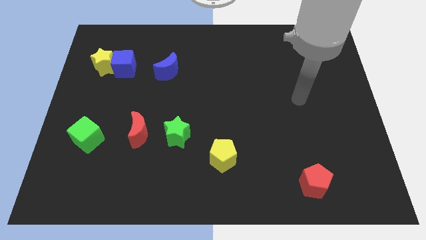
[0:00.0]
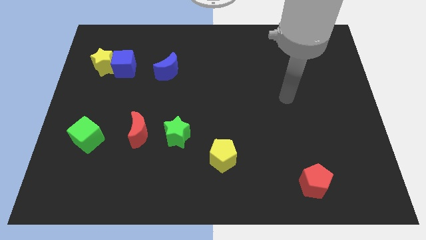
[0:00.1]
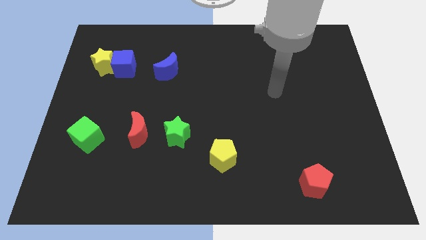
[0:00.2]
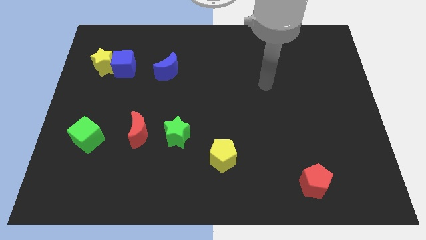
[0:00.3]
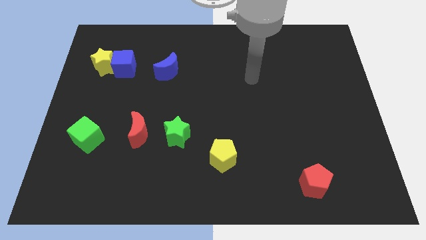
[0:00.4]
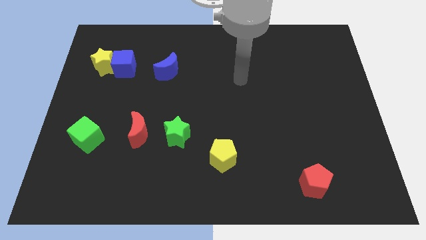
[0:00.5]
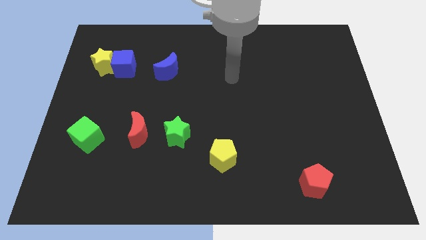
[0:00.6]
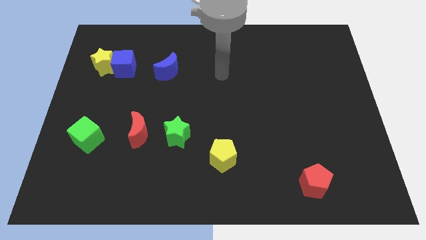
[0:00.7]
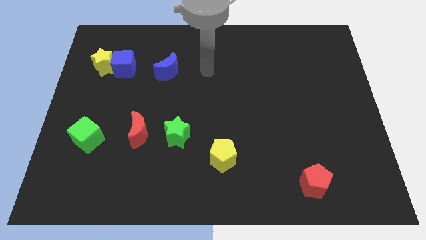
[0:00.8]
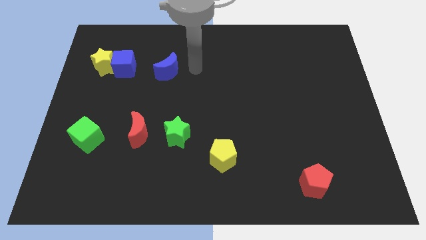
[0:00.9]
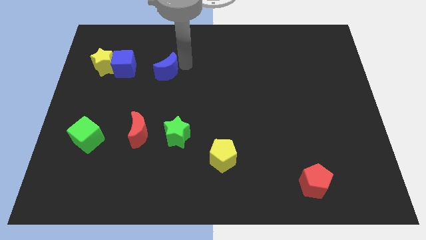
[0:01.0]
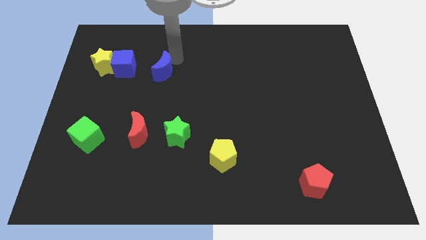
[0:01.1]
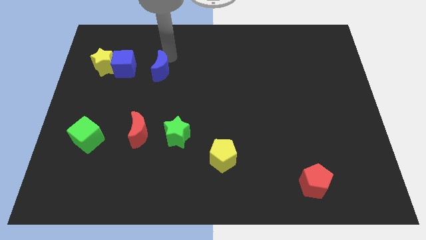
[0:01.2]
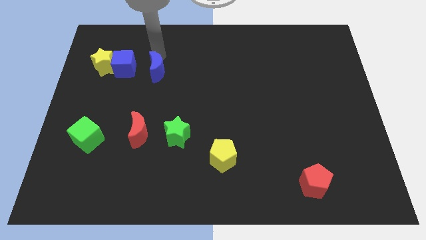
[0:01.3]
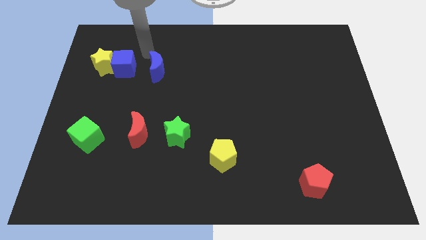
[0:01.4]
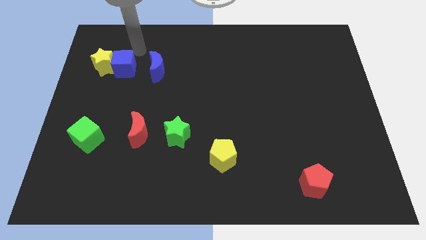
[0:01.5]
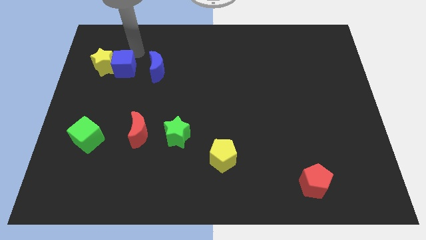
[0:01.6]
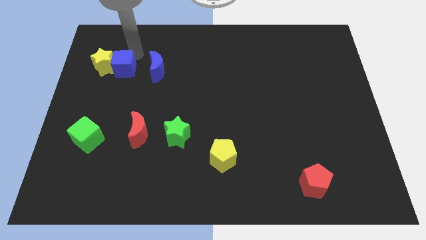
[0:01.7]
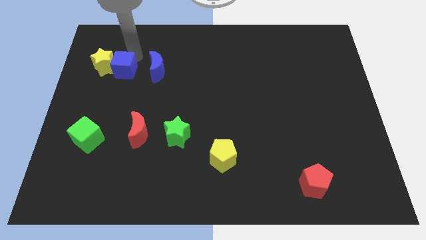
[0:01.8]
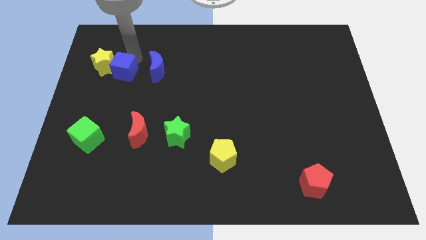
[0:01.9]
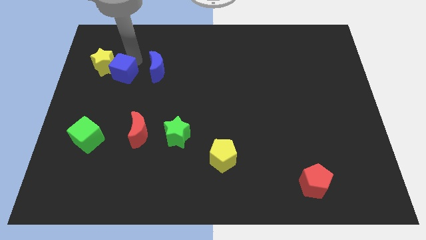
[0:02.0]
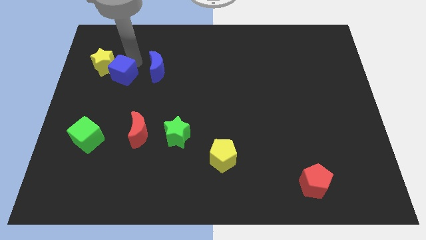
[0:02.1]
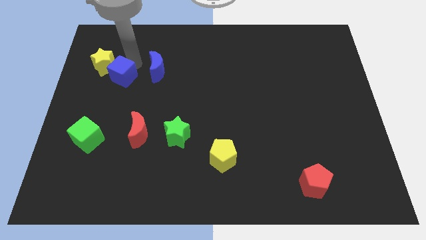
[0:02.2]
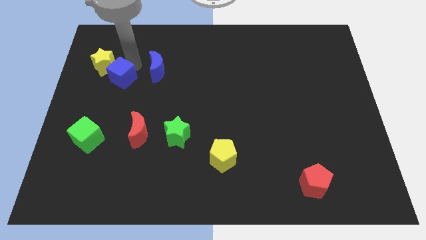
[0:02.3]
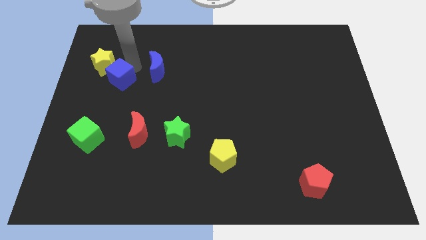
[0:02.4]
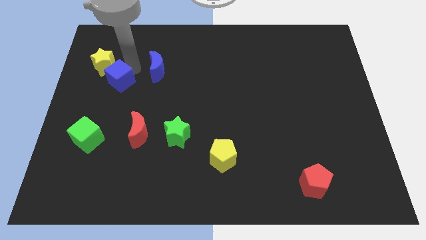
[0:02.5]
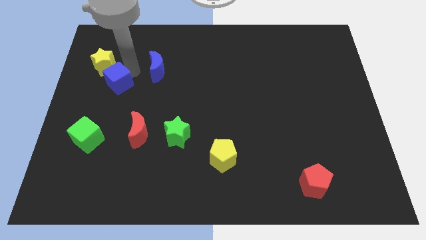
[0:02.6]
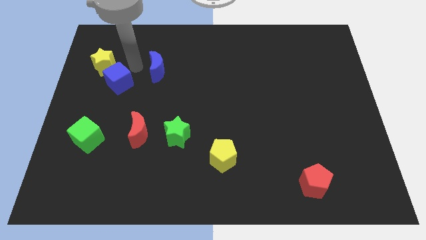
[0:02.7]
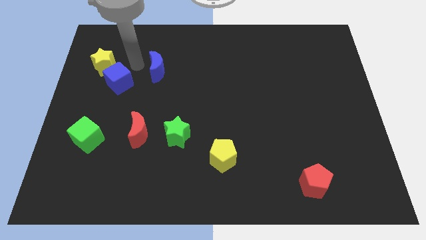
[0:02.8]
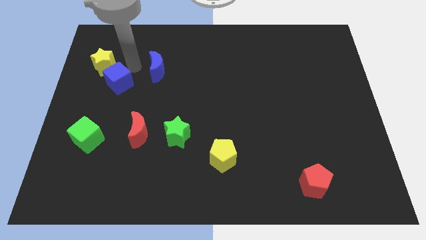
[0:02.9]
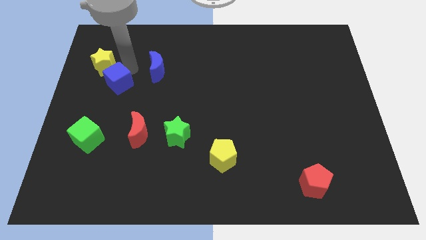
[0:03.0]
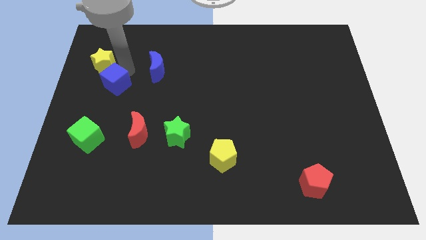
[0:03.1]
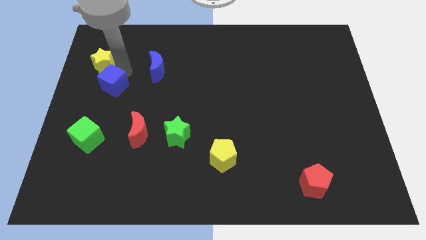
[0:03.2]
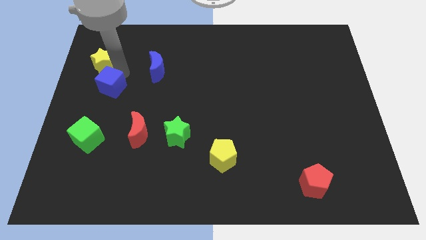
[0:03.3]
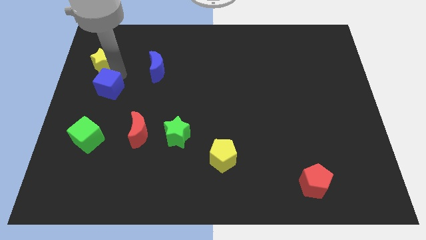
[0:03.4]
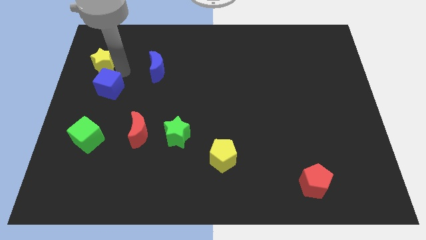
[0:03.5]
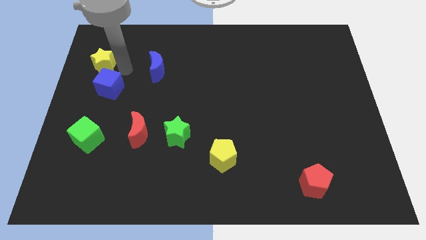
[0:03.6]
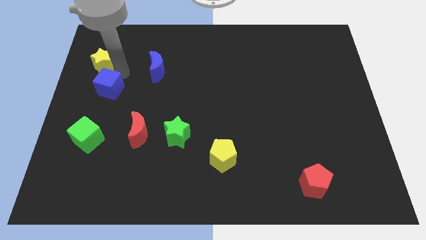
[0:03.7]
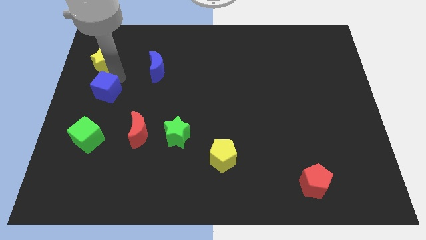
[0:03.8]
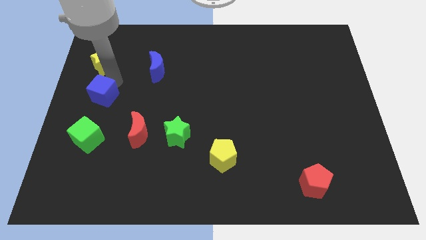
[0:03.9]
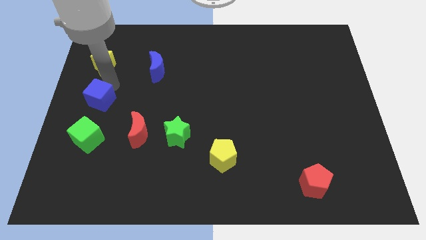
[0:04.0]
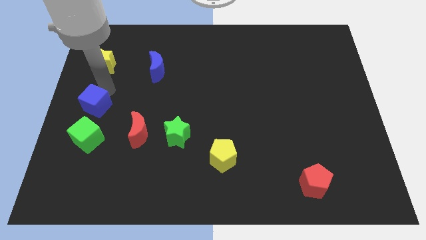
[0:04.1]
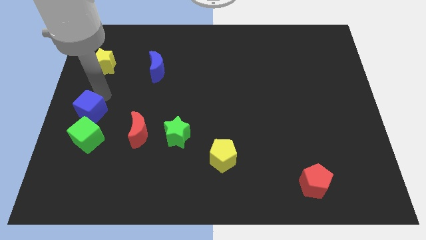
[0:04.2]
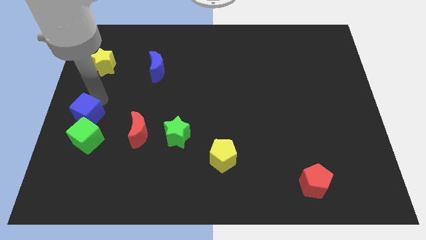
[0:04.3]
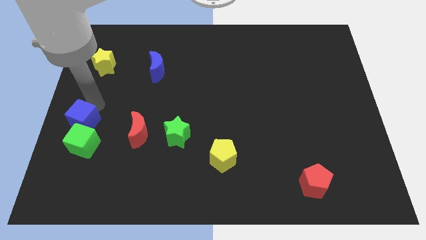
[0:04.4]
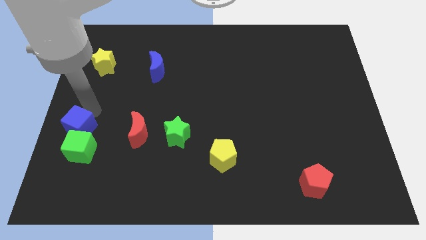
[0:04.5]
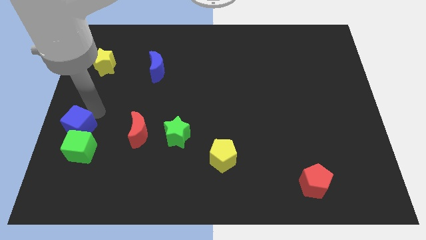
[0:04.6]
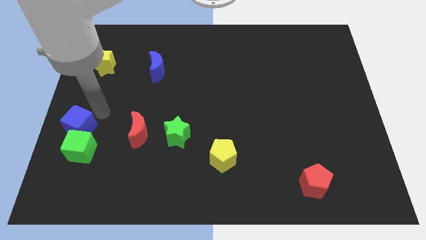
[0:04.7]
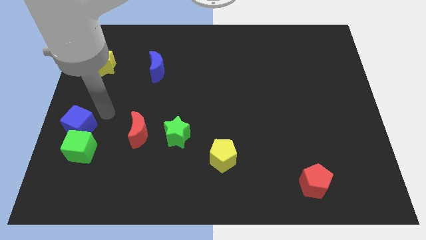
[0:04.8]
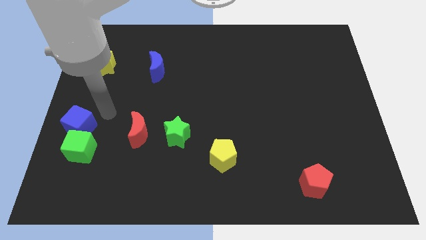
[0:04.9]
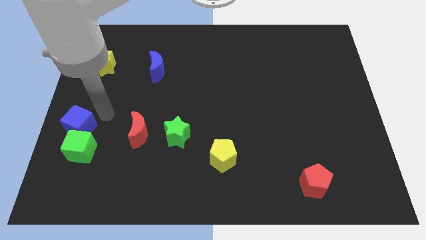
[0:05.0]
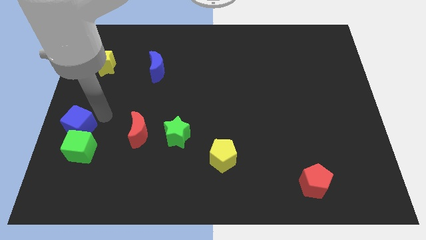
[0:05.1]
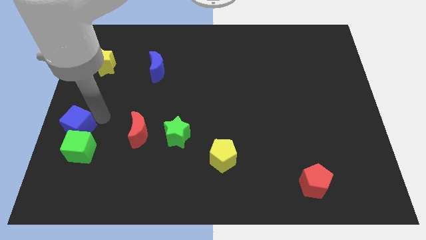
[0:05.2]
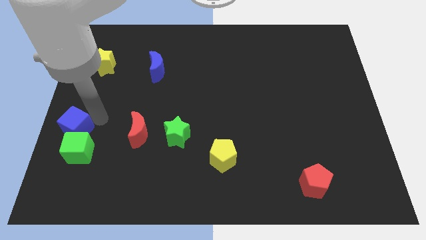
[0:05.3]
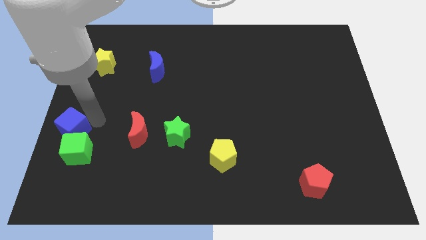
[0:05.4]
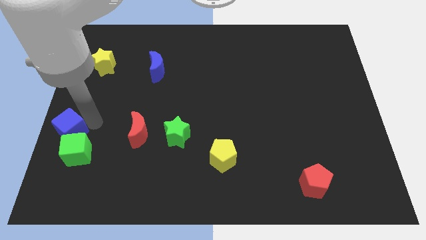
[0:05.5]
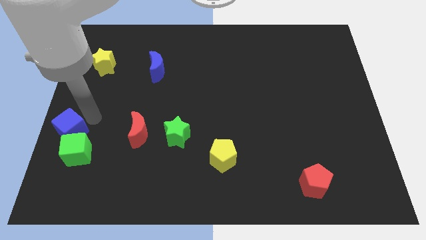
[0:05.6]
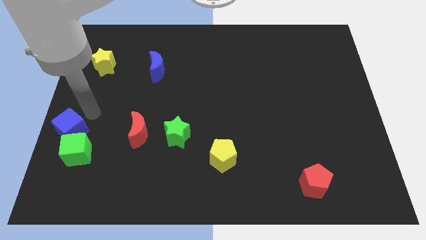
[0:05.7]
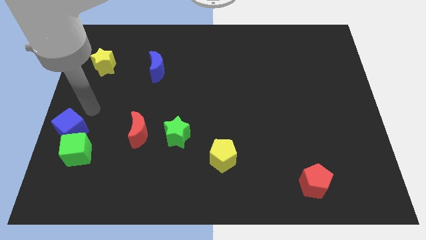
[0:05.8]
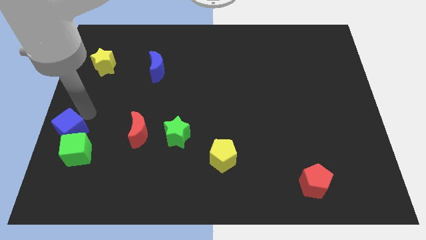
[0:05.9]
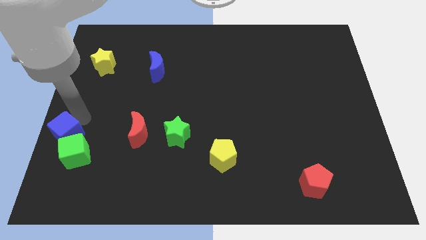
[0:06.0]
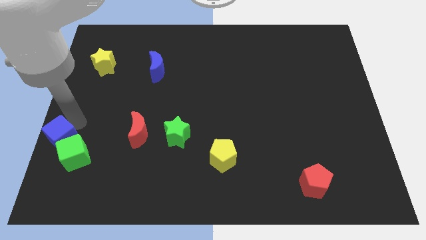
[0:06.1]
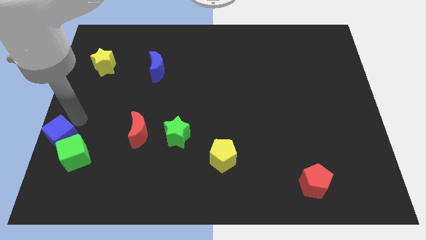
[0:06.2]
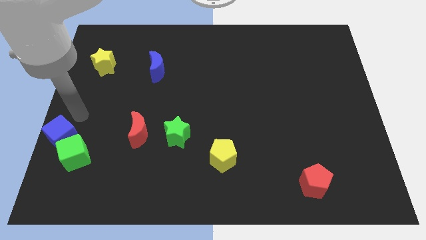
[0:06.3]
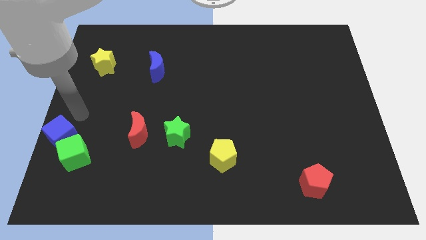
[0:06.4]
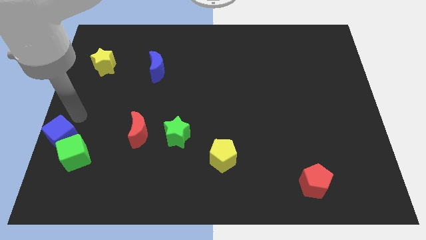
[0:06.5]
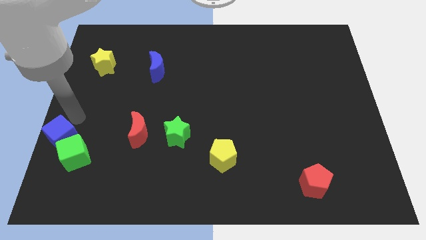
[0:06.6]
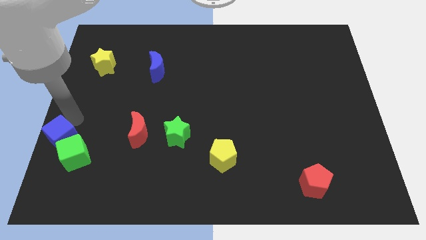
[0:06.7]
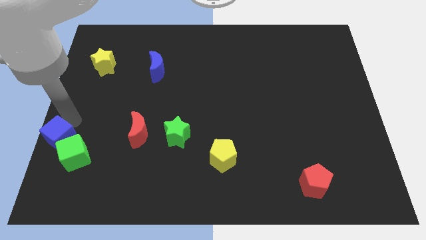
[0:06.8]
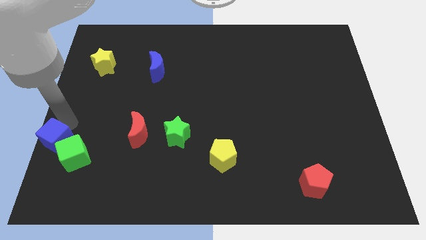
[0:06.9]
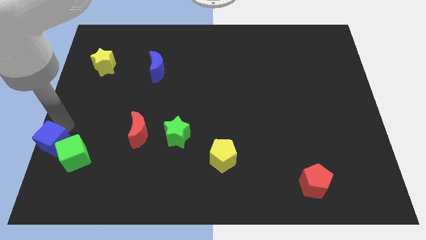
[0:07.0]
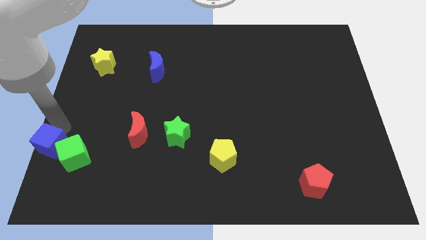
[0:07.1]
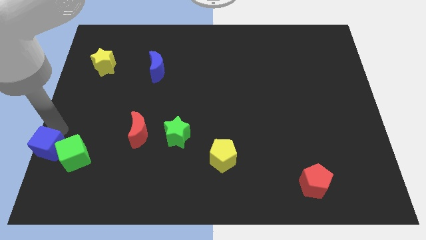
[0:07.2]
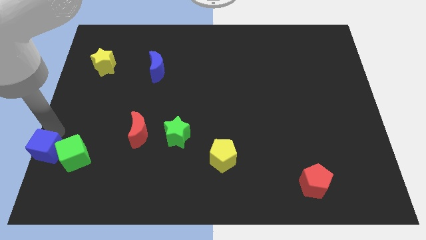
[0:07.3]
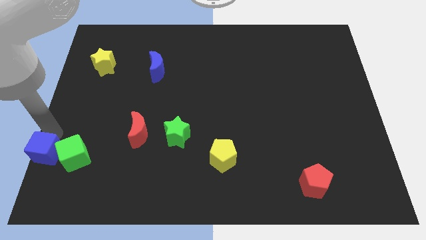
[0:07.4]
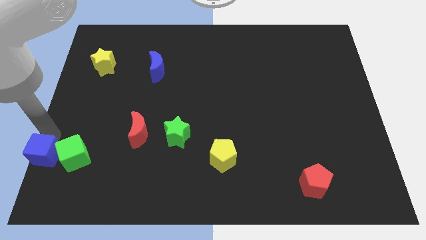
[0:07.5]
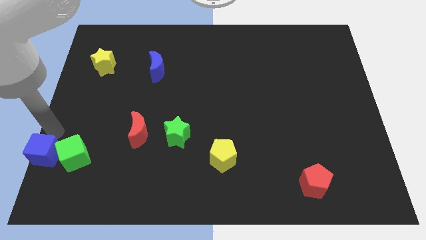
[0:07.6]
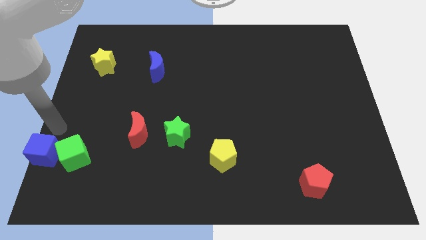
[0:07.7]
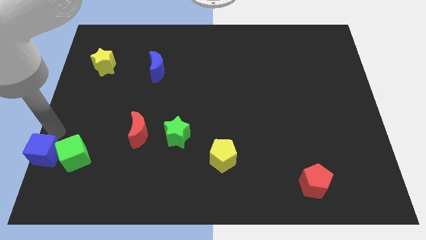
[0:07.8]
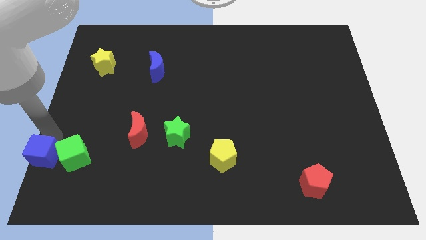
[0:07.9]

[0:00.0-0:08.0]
push the blue cube to the bottom left of the board
